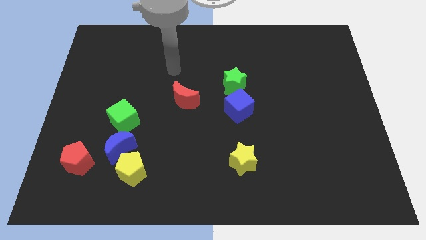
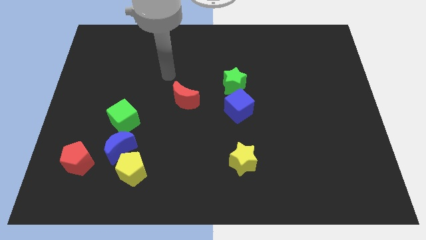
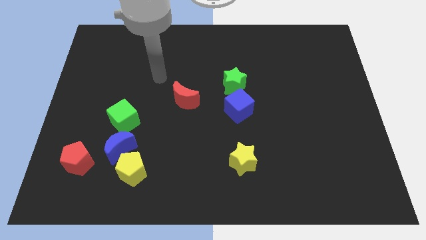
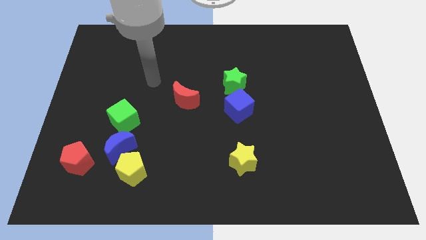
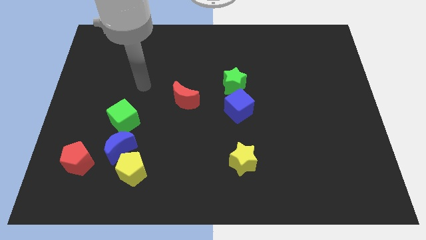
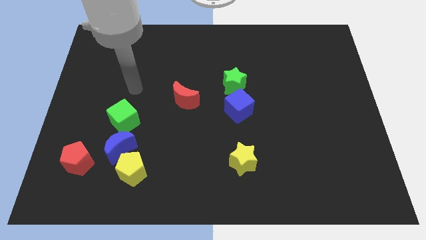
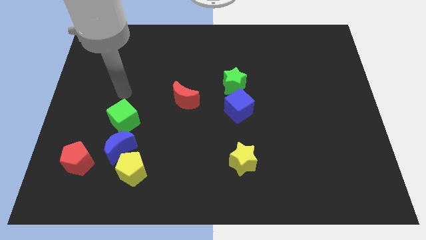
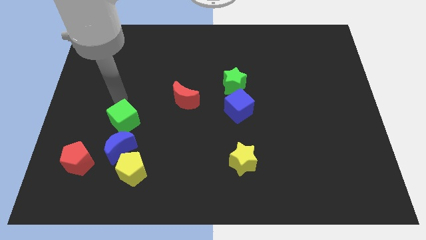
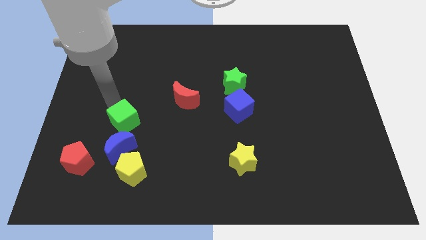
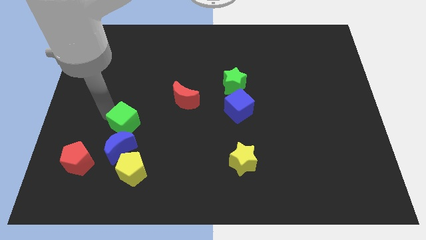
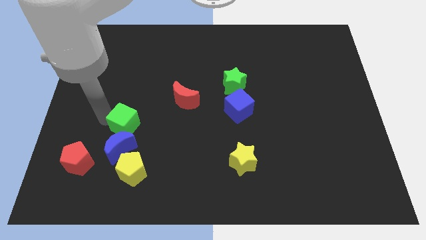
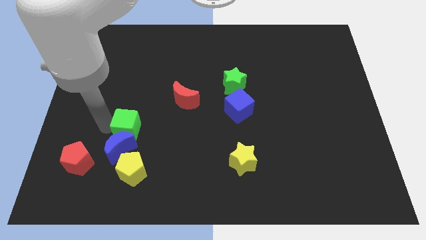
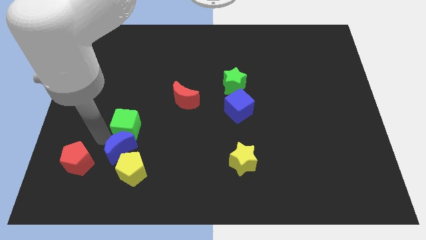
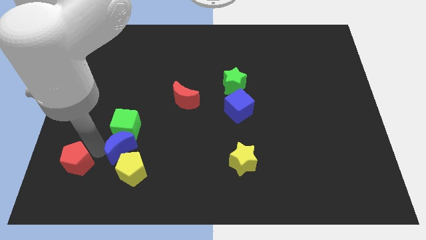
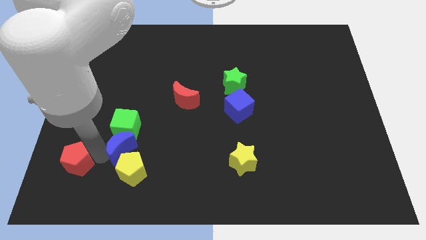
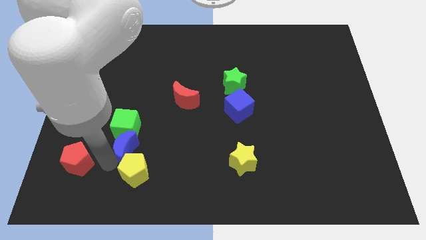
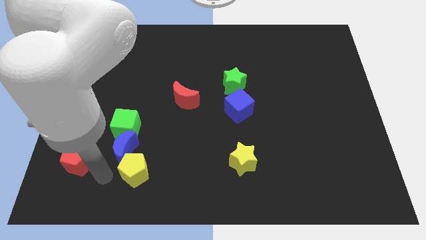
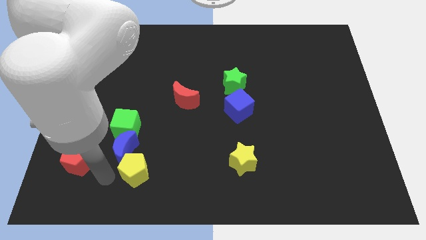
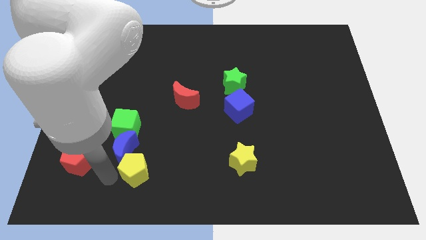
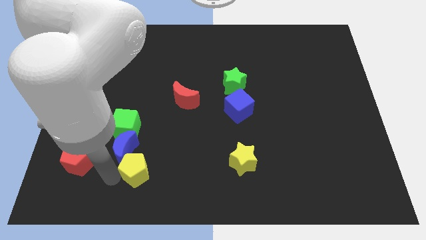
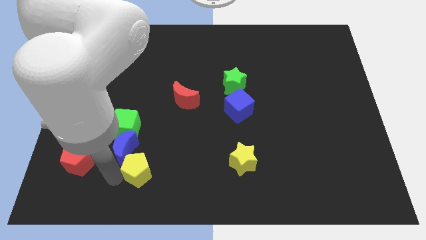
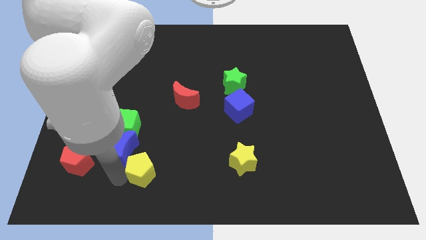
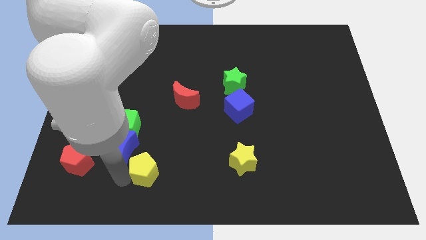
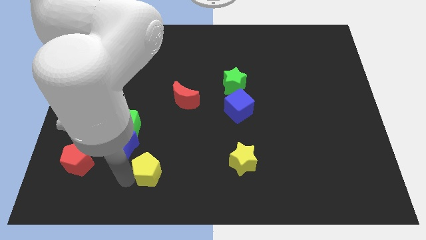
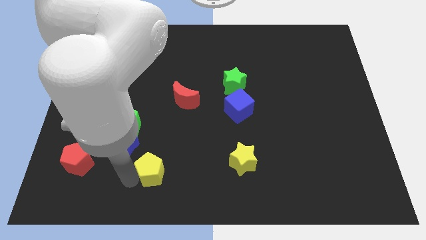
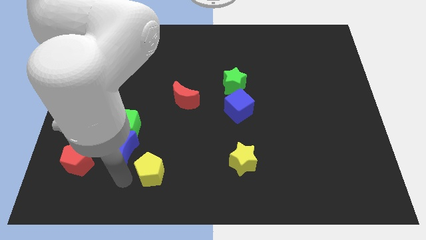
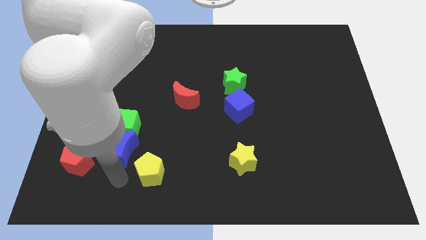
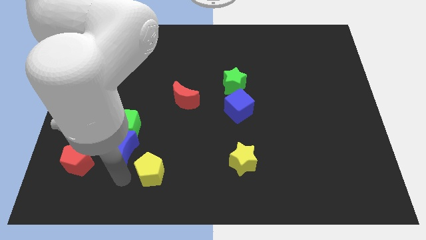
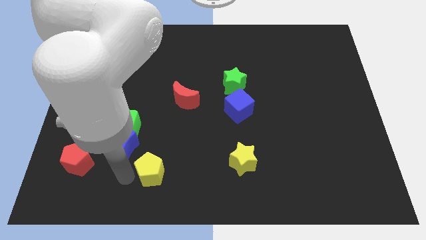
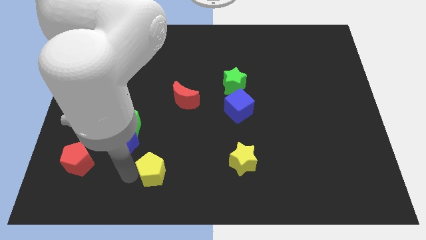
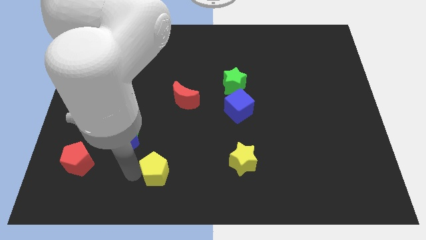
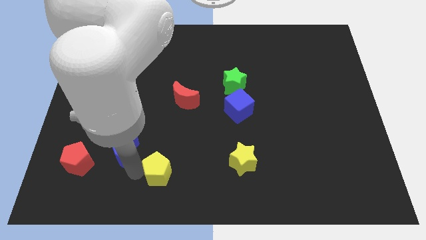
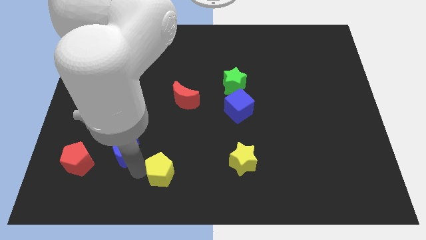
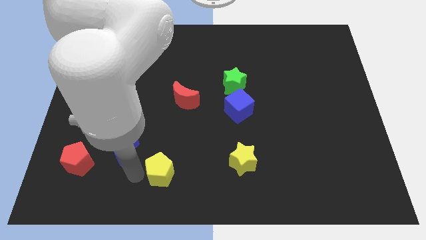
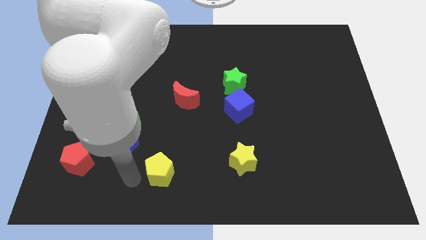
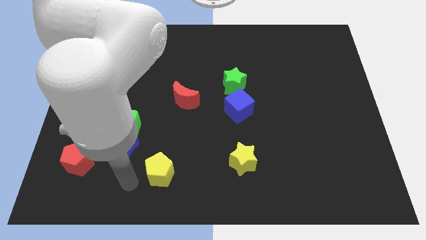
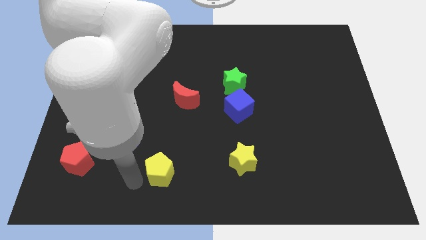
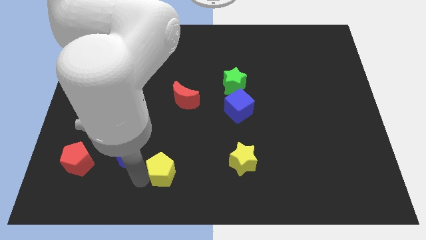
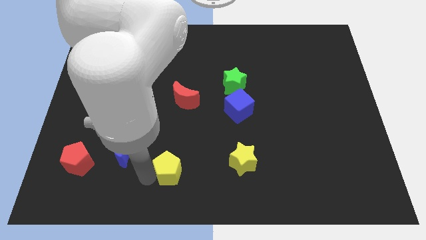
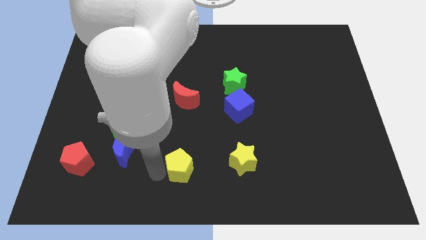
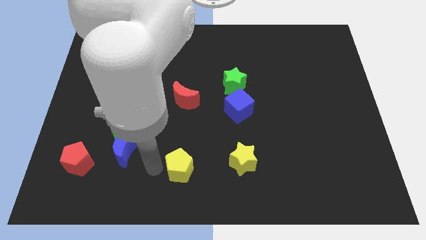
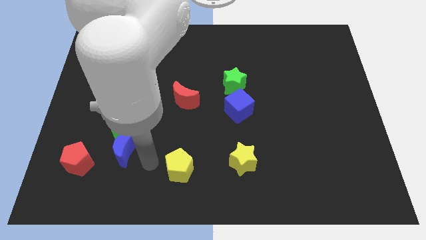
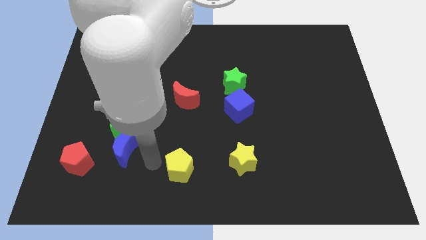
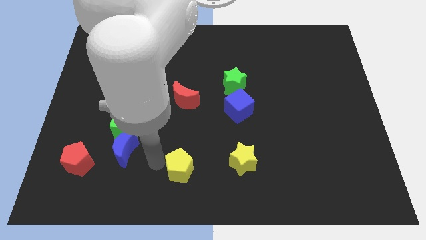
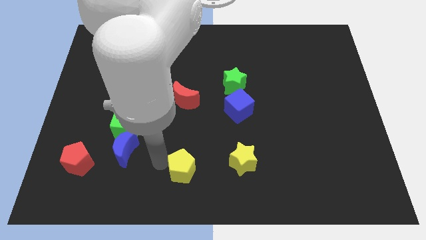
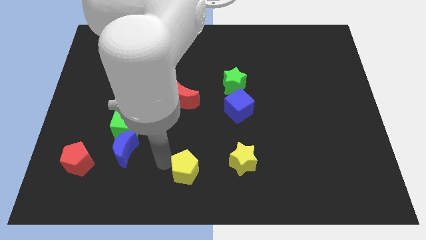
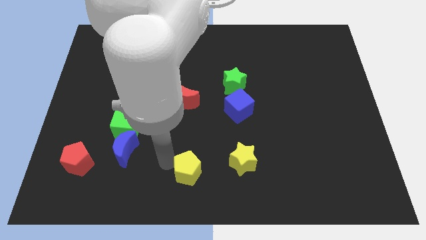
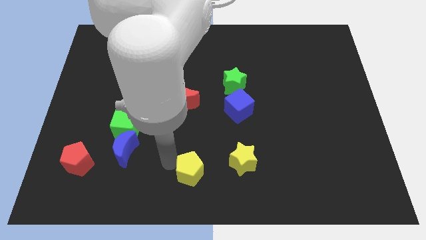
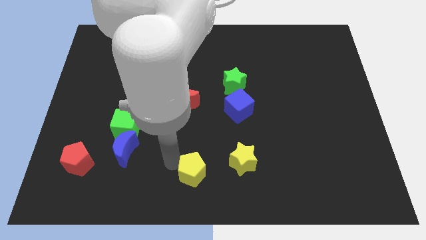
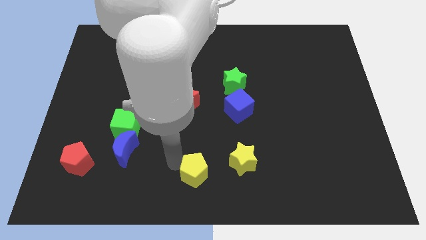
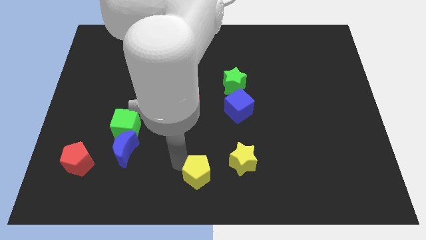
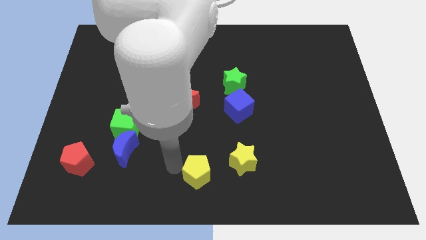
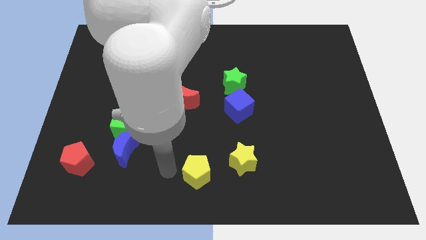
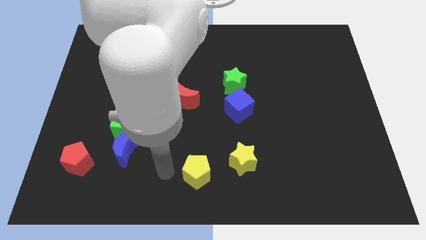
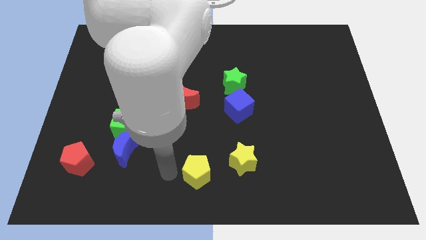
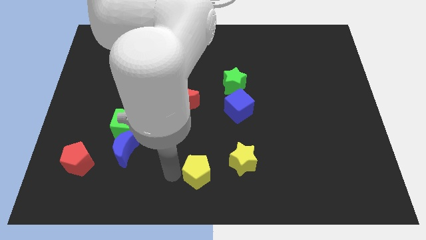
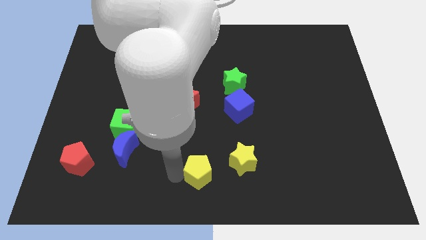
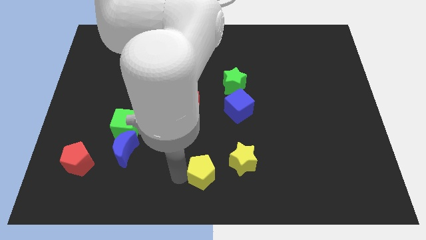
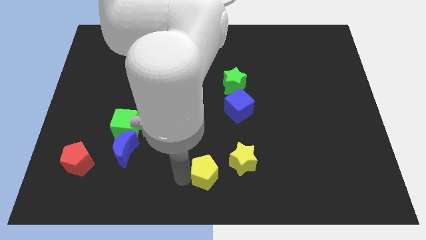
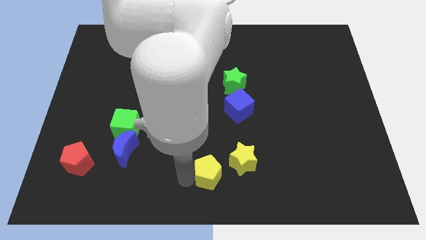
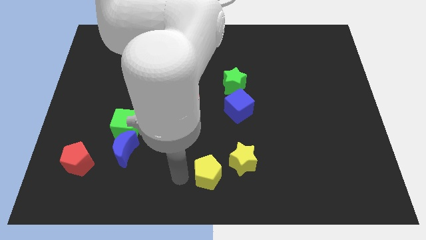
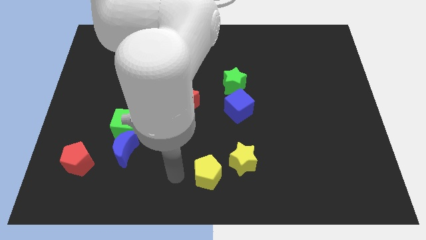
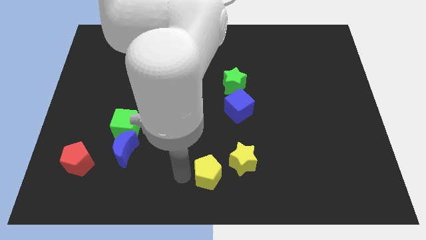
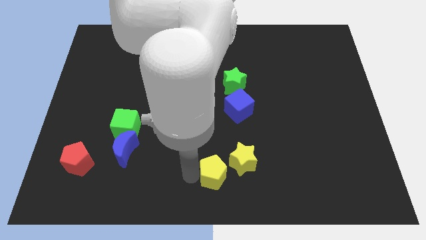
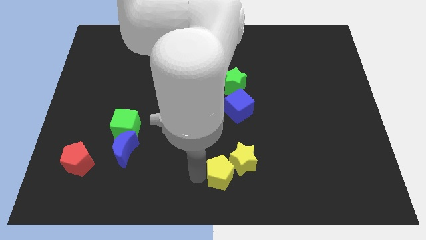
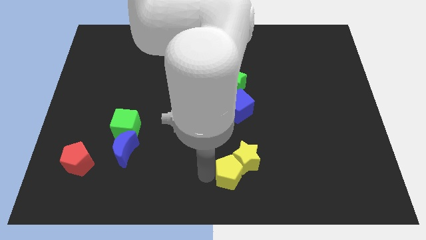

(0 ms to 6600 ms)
move the yellow pentagon to the right

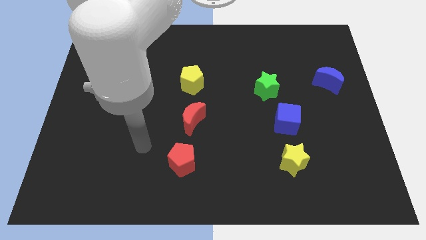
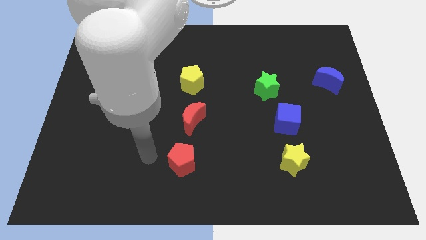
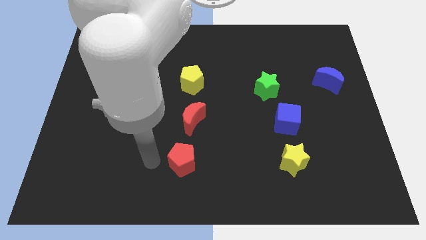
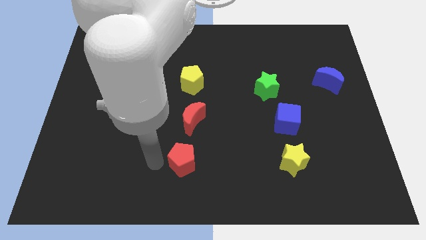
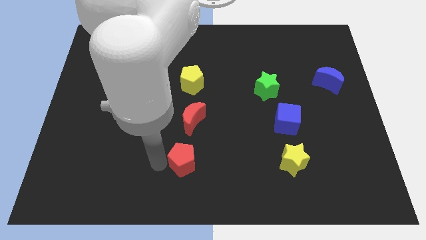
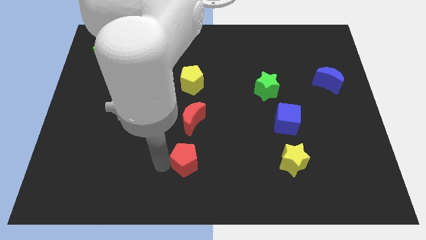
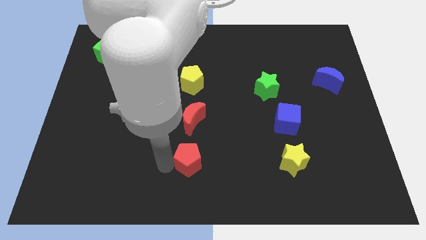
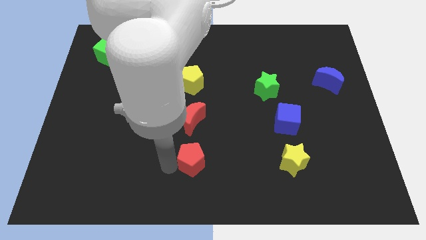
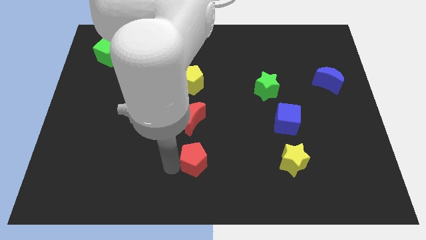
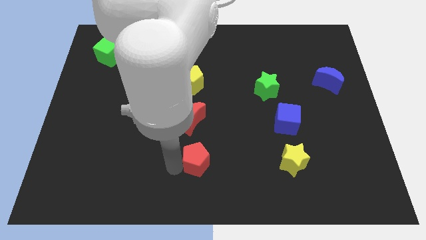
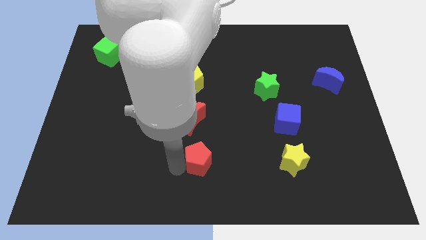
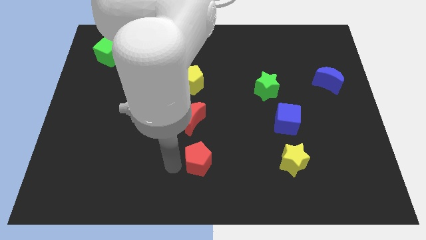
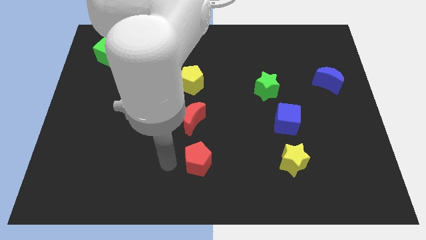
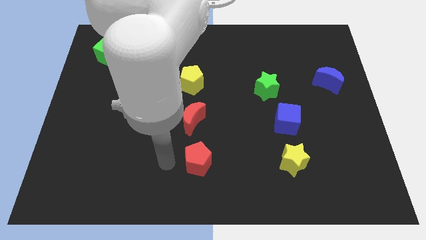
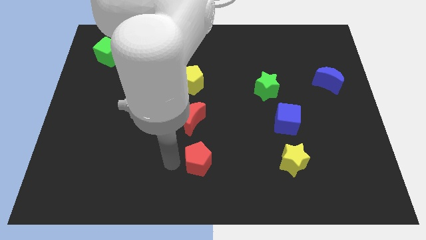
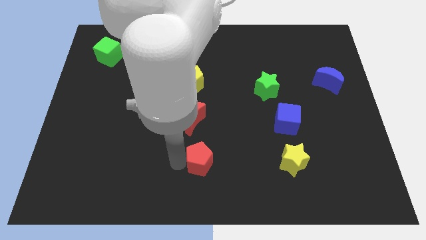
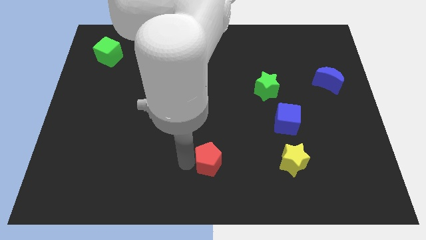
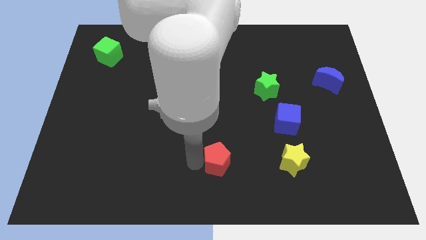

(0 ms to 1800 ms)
slide the red pentagon a little bit right

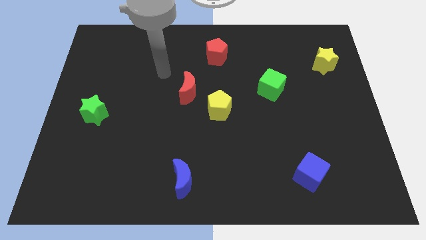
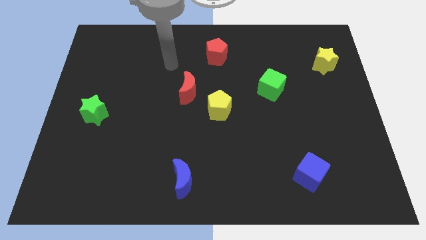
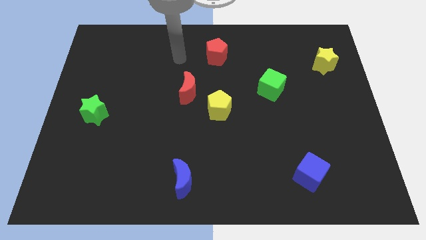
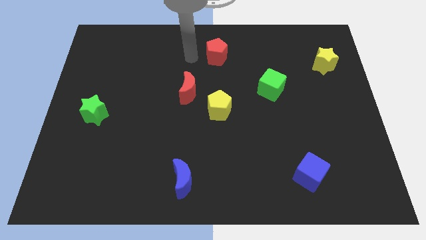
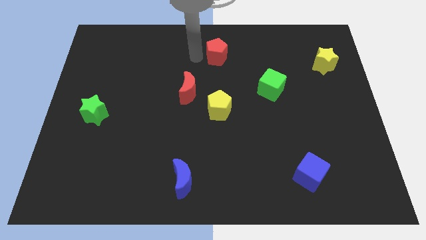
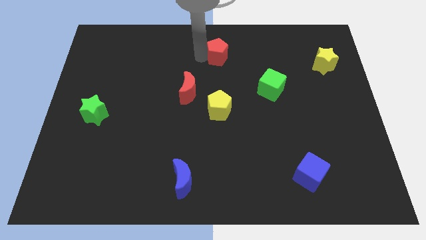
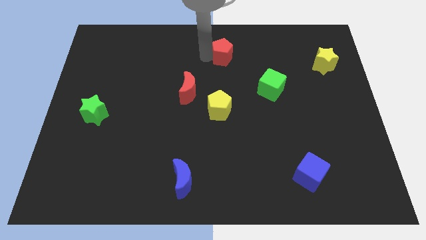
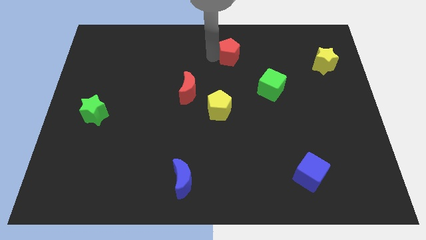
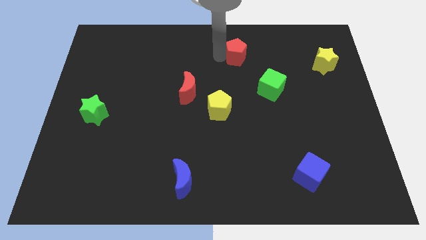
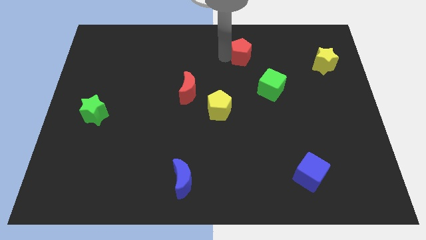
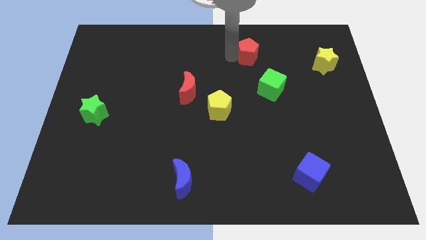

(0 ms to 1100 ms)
push the red pentagon somewhat right
